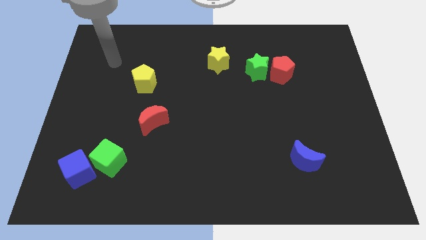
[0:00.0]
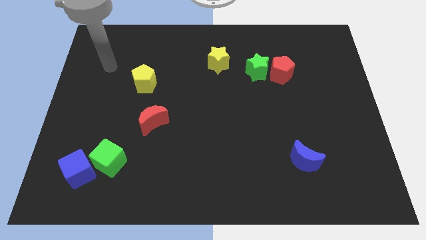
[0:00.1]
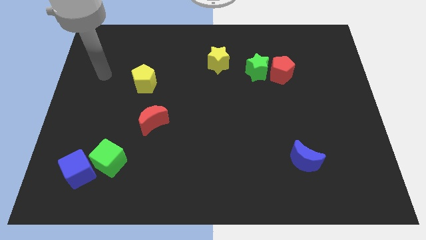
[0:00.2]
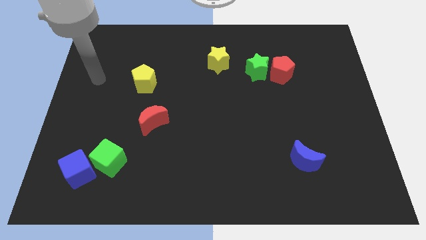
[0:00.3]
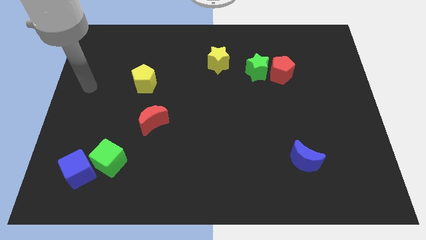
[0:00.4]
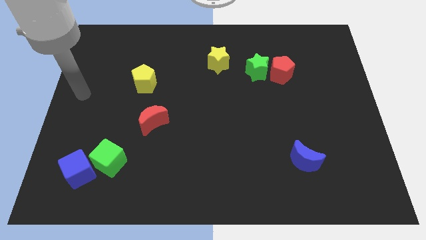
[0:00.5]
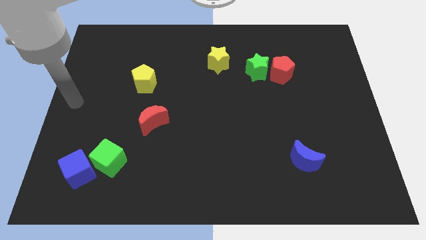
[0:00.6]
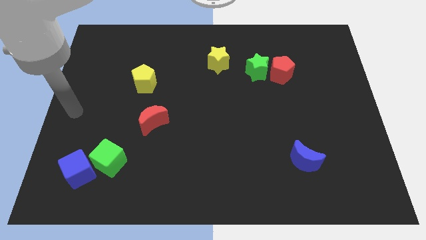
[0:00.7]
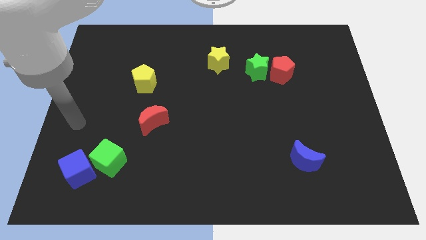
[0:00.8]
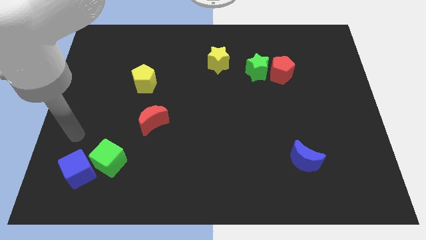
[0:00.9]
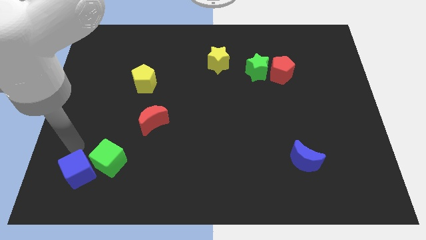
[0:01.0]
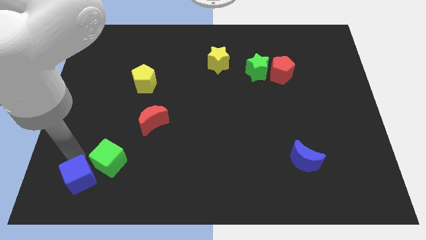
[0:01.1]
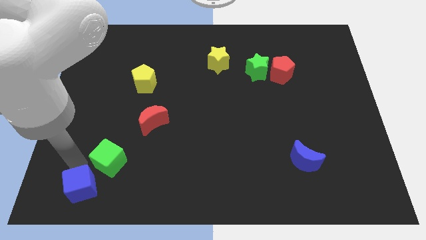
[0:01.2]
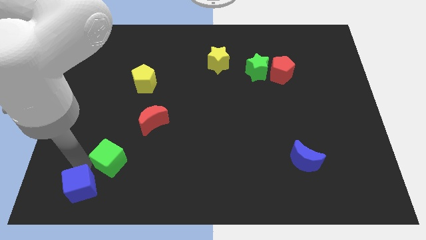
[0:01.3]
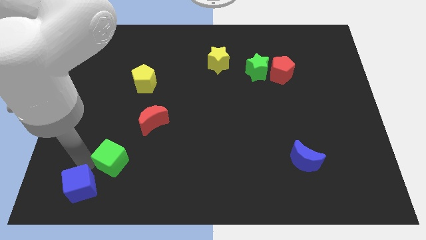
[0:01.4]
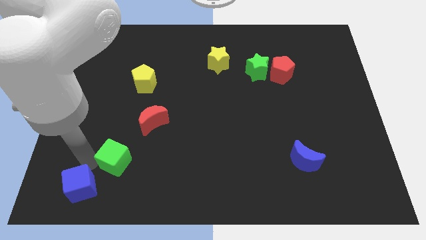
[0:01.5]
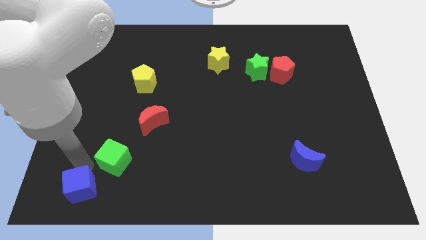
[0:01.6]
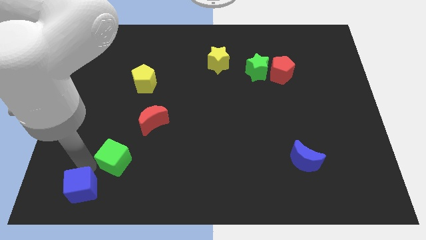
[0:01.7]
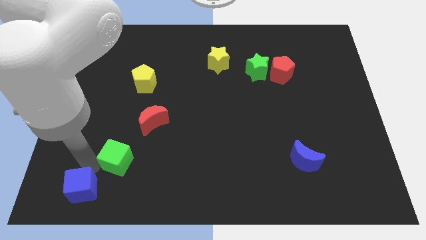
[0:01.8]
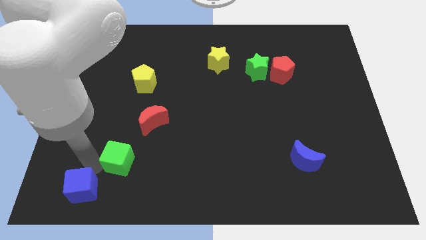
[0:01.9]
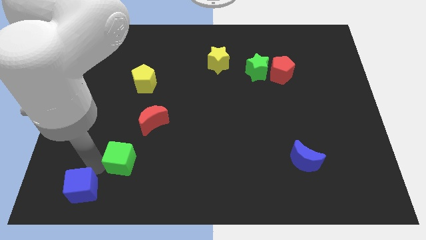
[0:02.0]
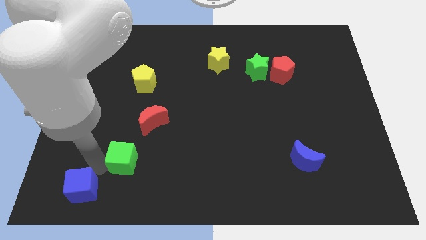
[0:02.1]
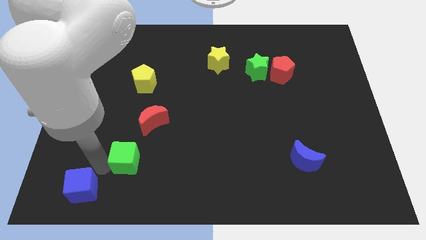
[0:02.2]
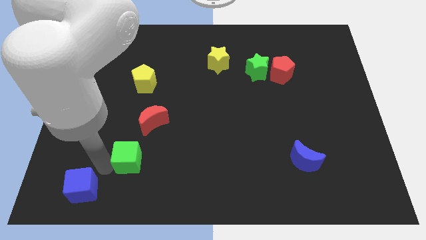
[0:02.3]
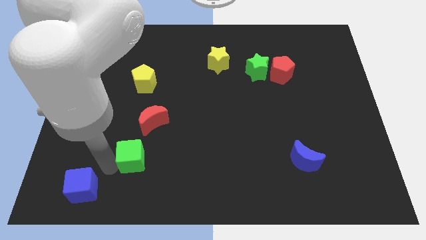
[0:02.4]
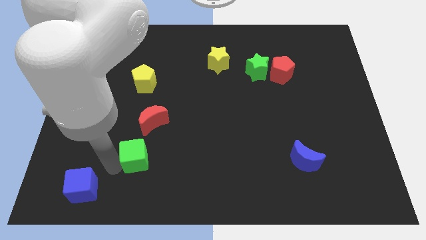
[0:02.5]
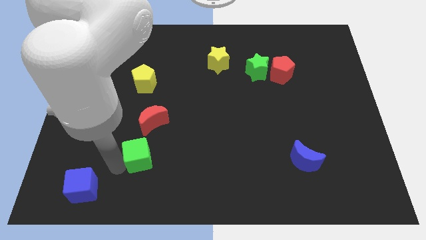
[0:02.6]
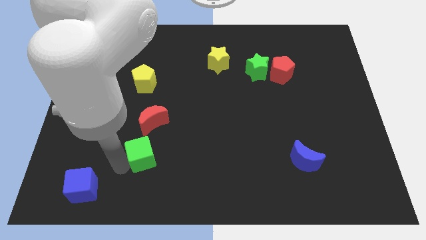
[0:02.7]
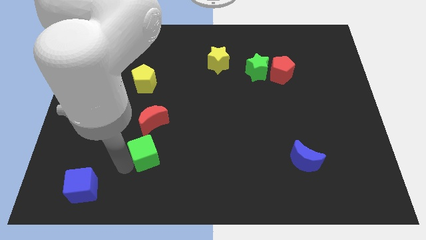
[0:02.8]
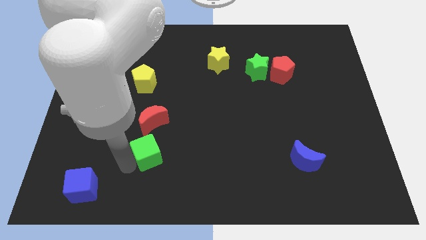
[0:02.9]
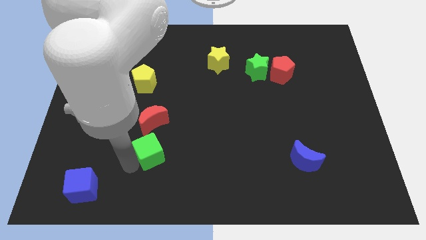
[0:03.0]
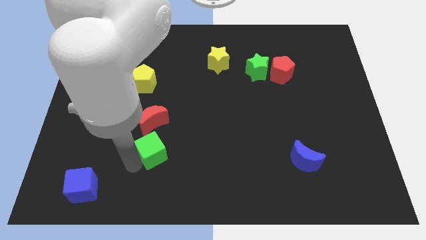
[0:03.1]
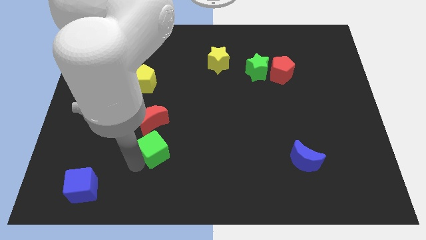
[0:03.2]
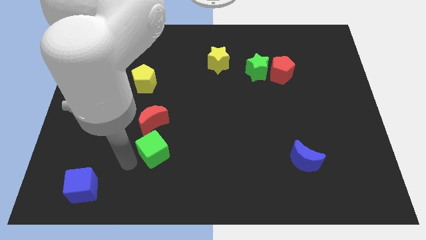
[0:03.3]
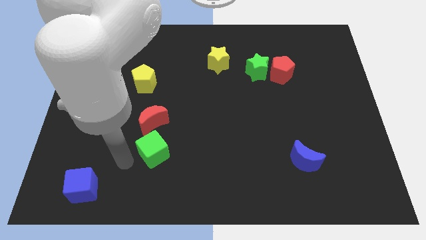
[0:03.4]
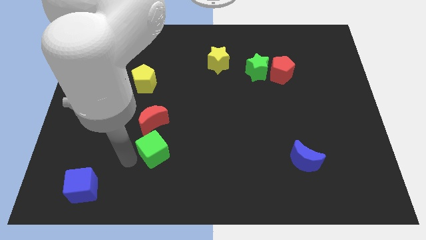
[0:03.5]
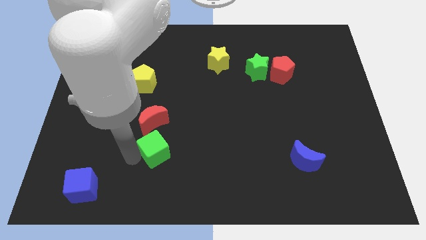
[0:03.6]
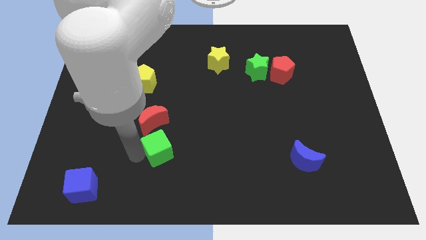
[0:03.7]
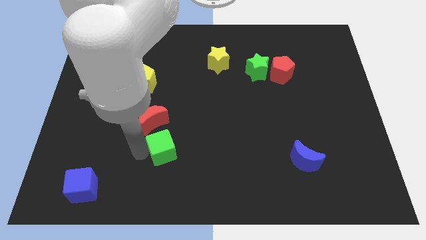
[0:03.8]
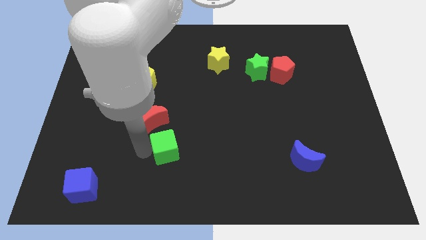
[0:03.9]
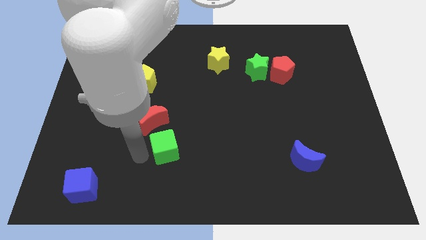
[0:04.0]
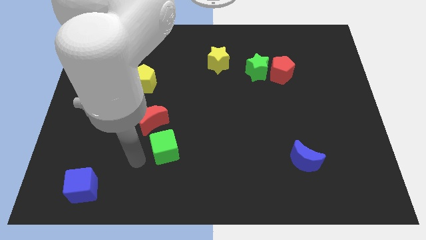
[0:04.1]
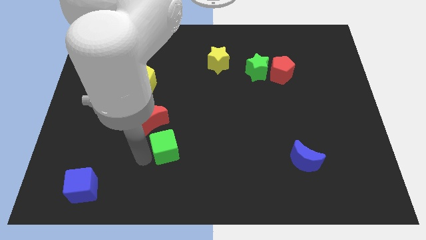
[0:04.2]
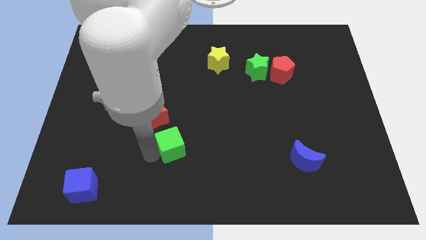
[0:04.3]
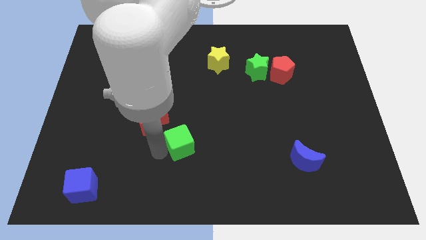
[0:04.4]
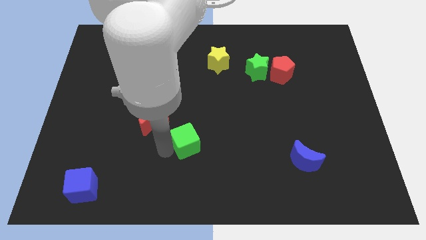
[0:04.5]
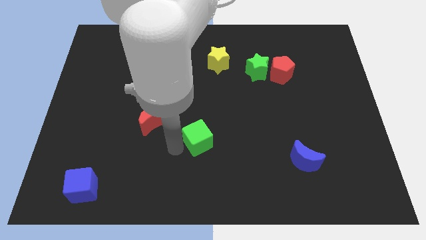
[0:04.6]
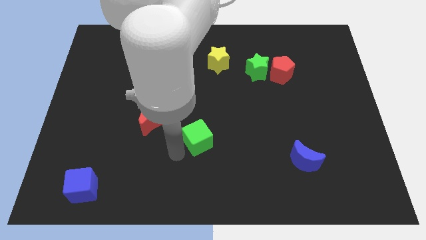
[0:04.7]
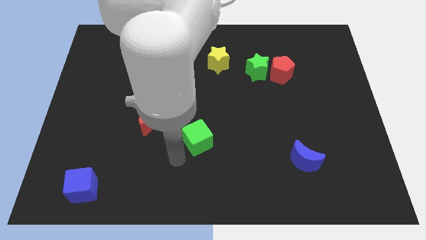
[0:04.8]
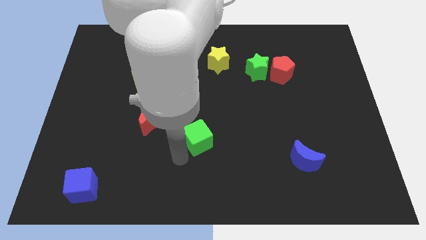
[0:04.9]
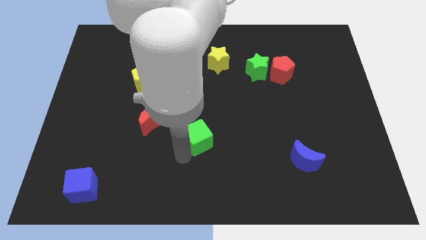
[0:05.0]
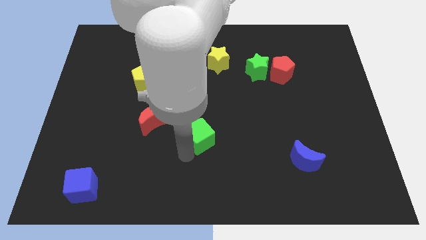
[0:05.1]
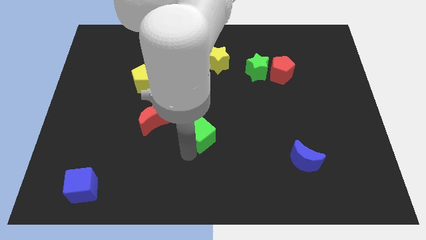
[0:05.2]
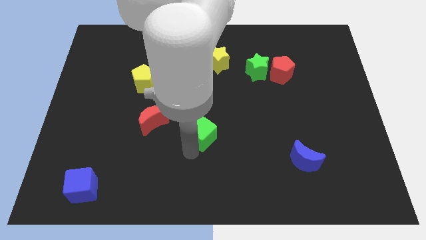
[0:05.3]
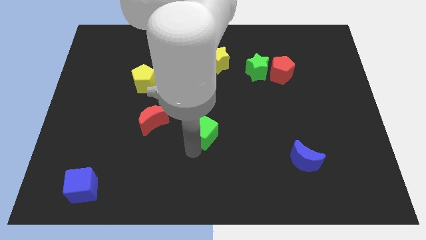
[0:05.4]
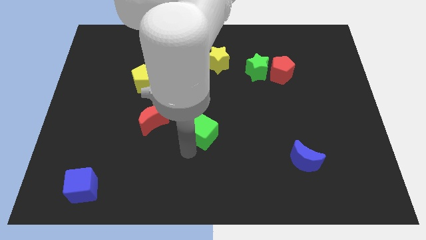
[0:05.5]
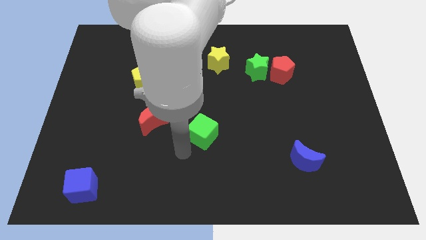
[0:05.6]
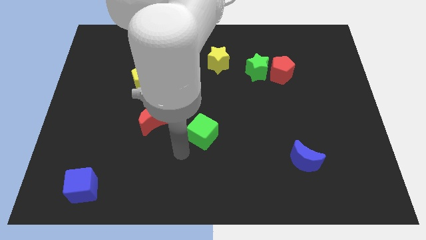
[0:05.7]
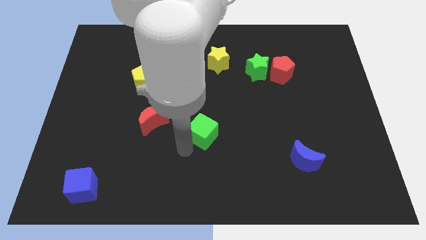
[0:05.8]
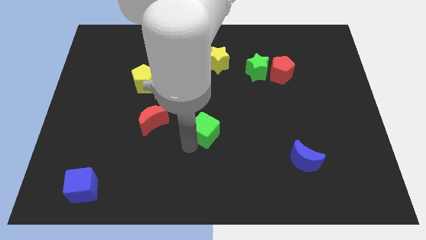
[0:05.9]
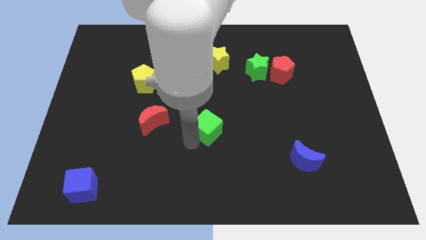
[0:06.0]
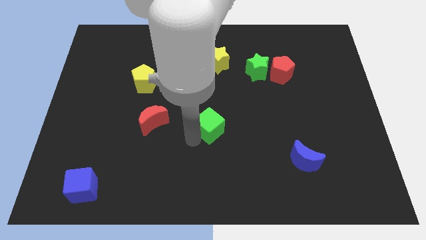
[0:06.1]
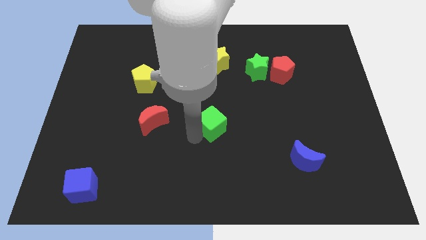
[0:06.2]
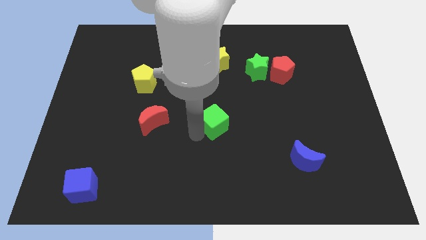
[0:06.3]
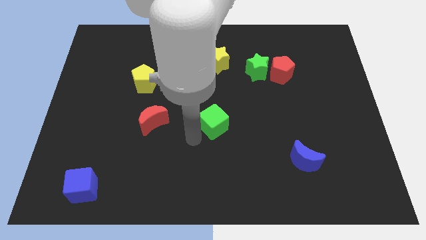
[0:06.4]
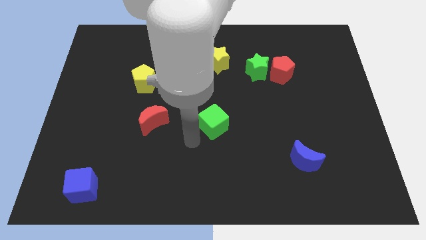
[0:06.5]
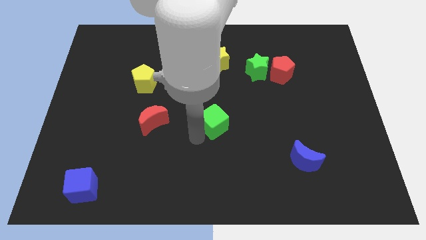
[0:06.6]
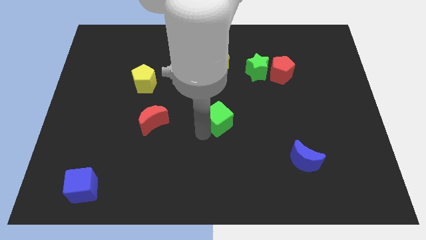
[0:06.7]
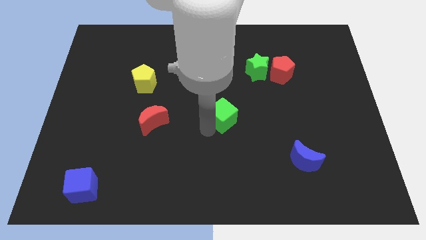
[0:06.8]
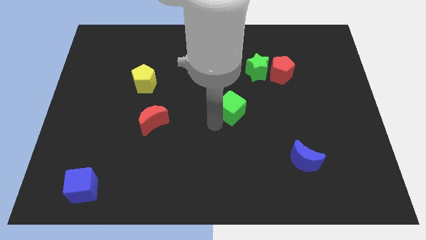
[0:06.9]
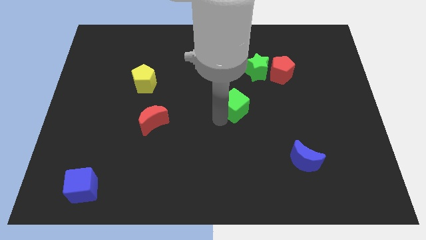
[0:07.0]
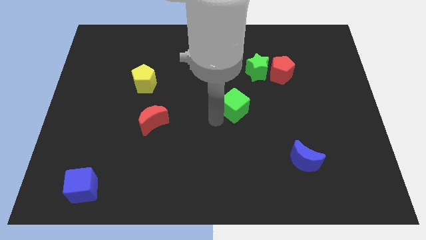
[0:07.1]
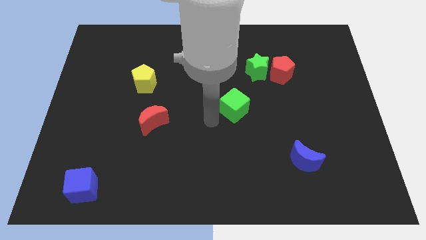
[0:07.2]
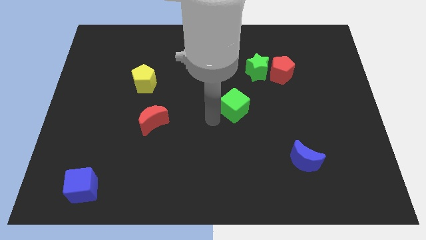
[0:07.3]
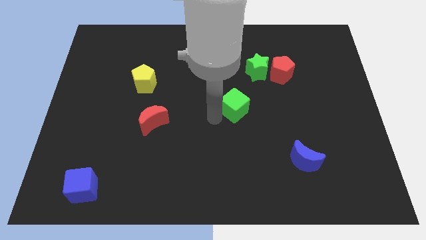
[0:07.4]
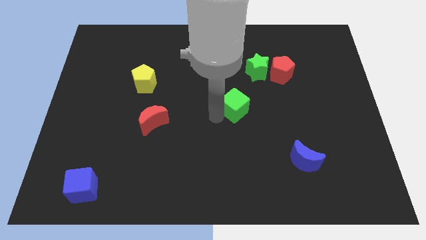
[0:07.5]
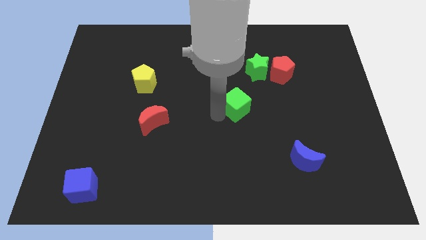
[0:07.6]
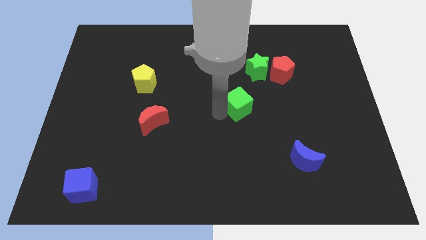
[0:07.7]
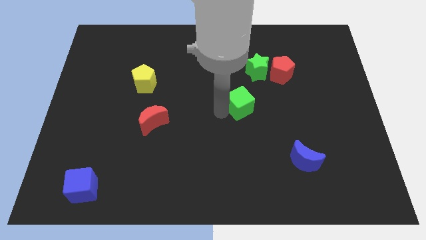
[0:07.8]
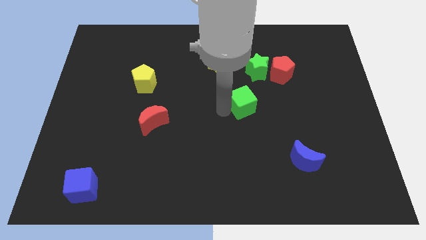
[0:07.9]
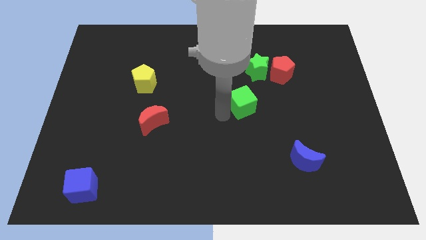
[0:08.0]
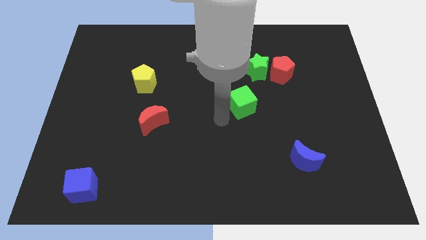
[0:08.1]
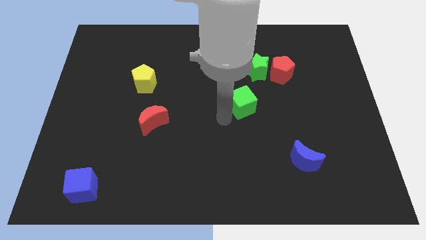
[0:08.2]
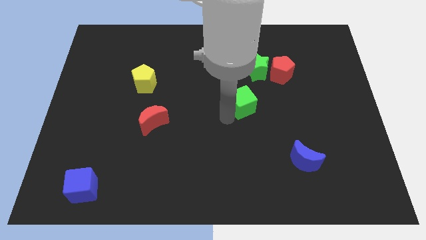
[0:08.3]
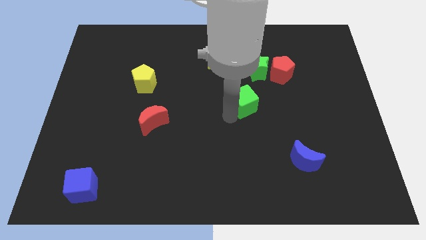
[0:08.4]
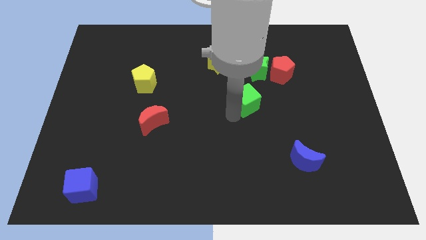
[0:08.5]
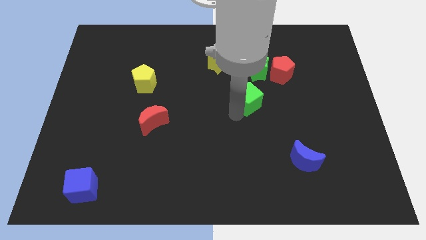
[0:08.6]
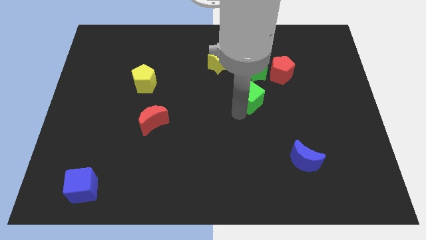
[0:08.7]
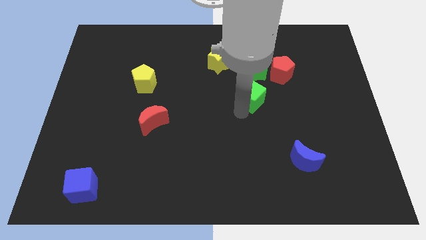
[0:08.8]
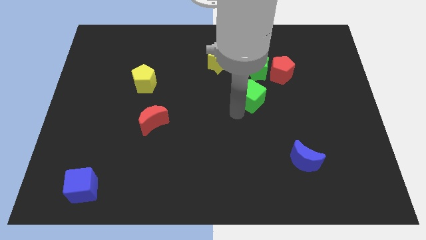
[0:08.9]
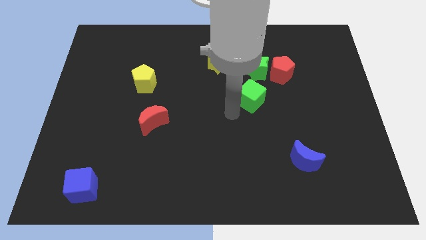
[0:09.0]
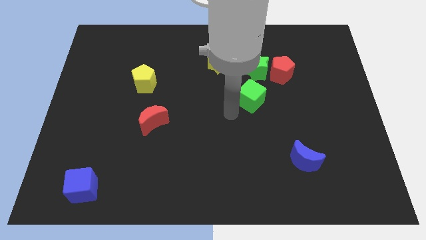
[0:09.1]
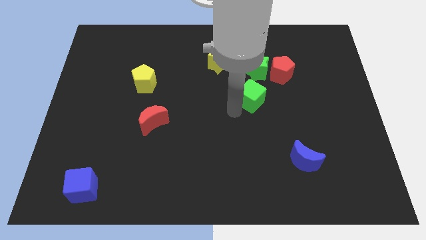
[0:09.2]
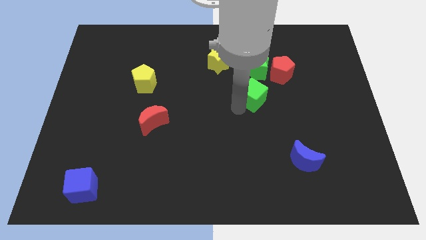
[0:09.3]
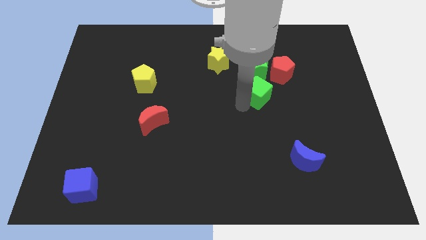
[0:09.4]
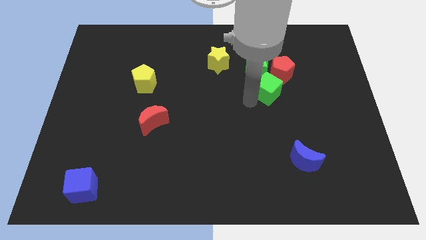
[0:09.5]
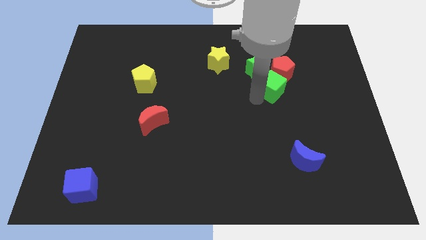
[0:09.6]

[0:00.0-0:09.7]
put the green cube to the red pentagon
